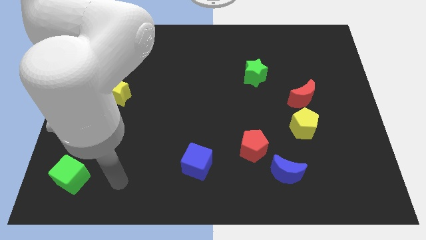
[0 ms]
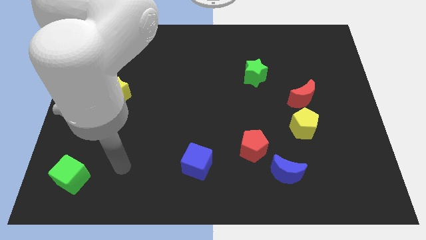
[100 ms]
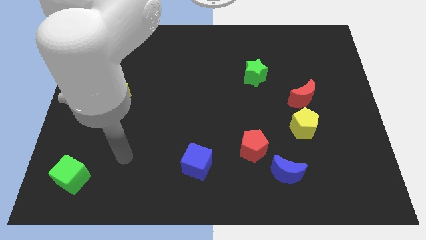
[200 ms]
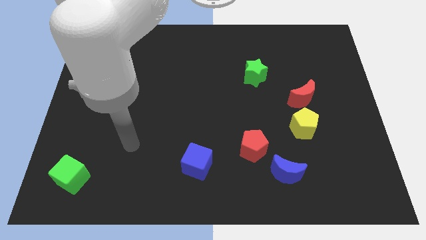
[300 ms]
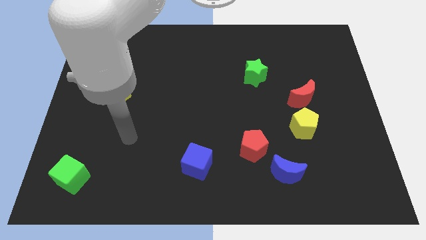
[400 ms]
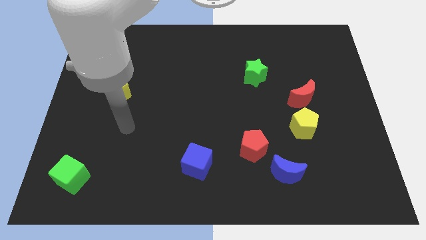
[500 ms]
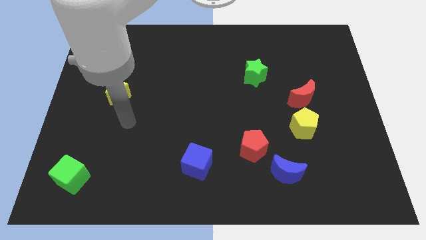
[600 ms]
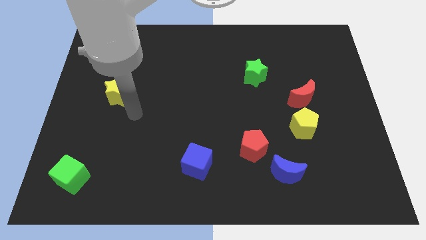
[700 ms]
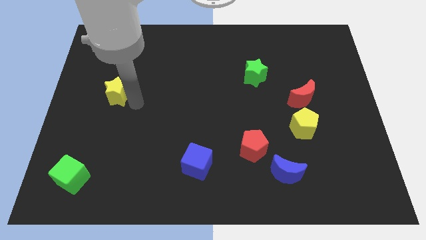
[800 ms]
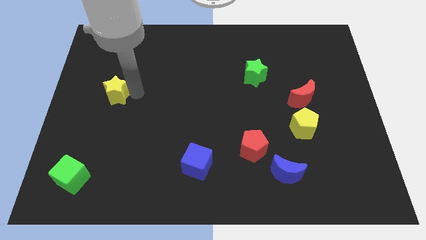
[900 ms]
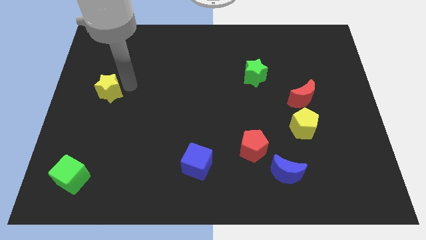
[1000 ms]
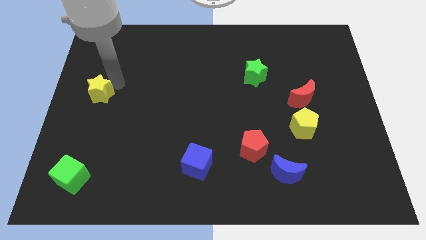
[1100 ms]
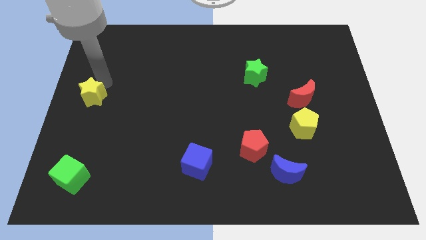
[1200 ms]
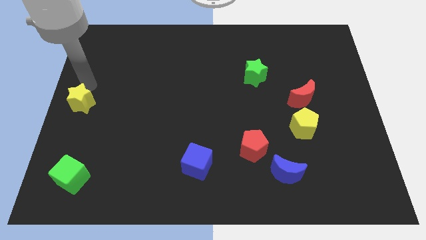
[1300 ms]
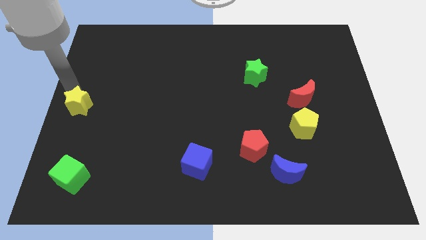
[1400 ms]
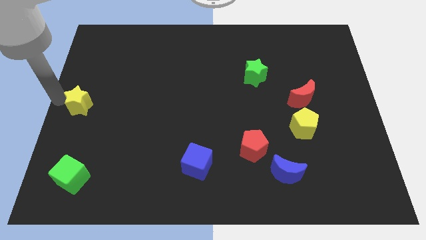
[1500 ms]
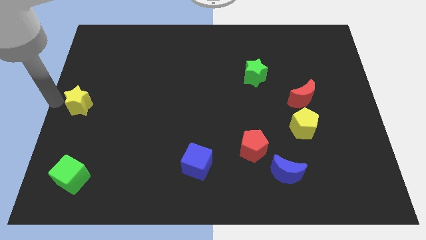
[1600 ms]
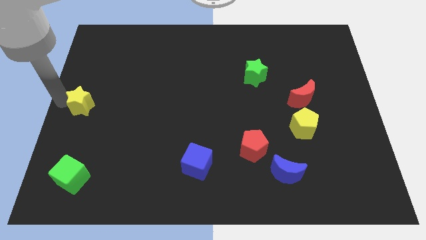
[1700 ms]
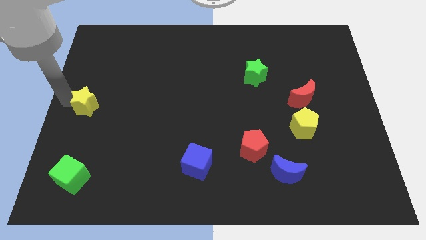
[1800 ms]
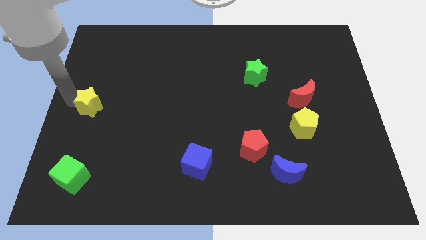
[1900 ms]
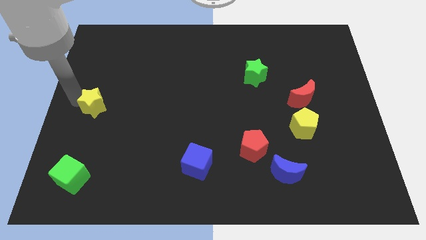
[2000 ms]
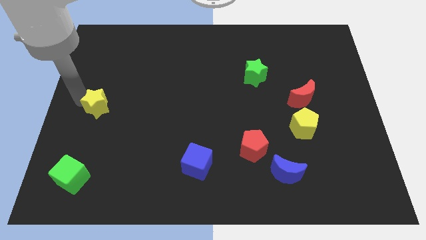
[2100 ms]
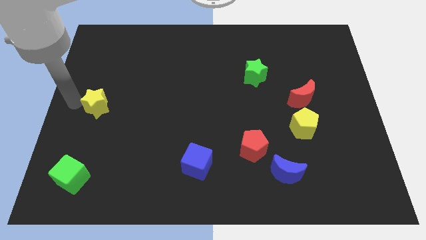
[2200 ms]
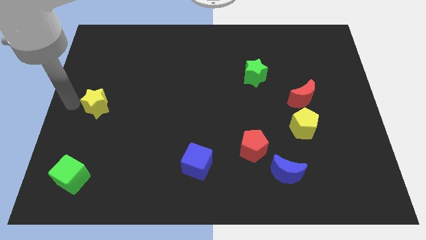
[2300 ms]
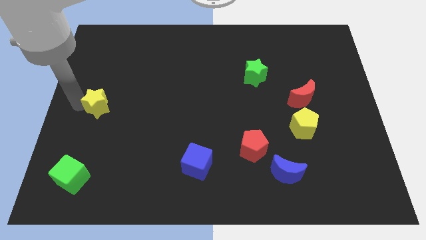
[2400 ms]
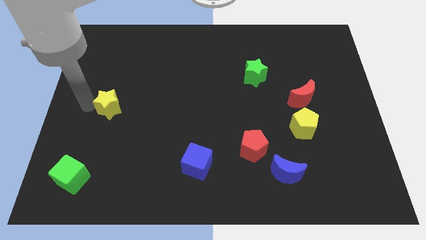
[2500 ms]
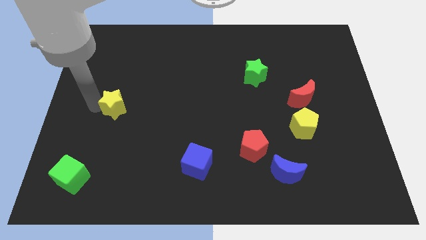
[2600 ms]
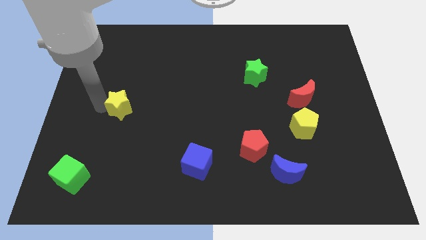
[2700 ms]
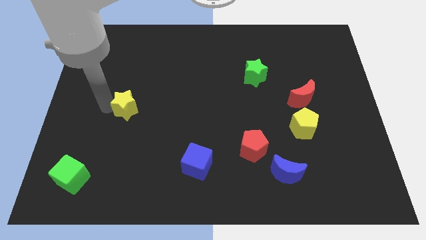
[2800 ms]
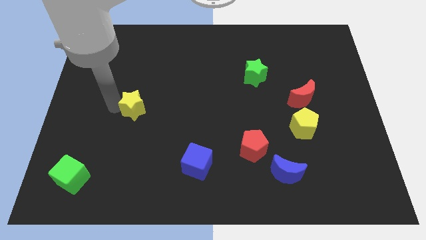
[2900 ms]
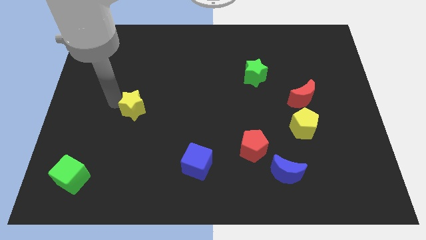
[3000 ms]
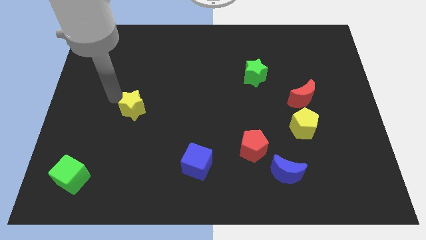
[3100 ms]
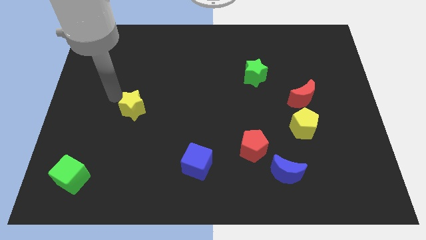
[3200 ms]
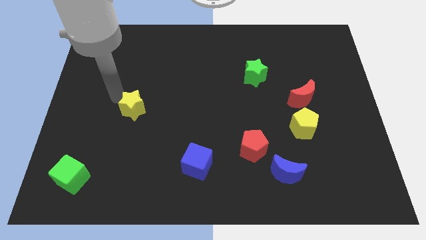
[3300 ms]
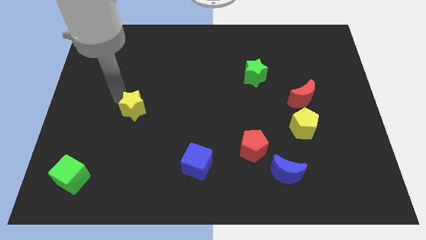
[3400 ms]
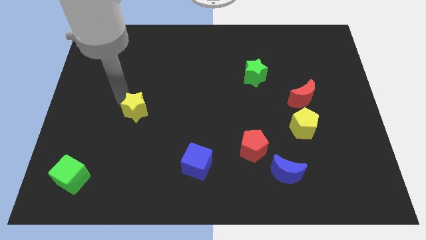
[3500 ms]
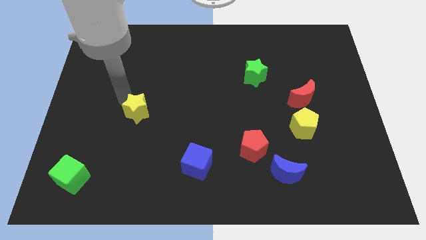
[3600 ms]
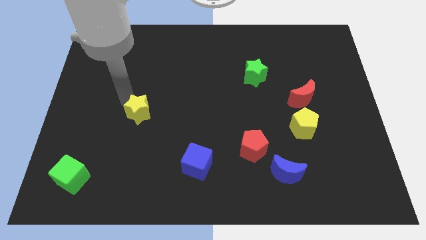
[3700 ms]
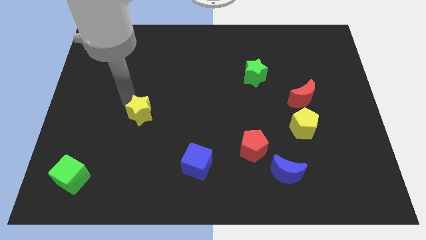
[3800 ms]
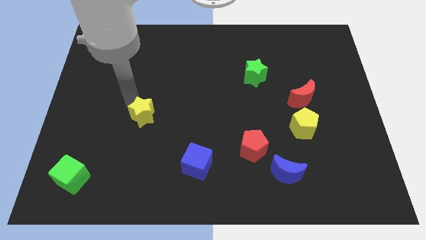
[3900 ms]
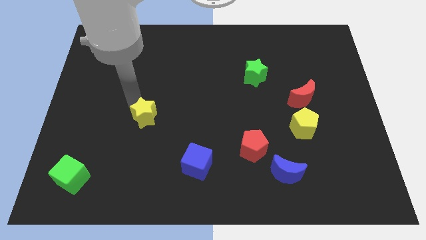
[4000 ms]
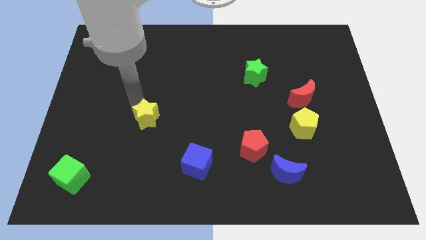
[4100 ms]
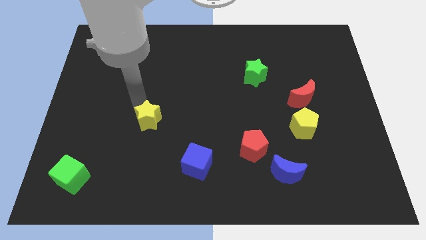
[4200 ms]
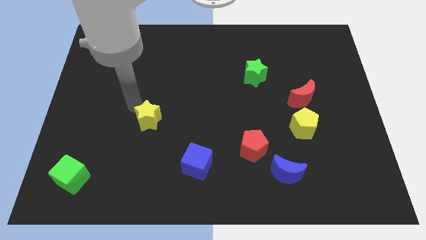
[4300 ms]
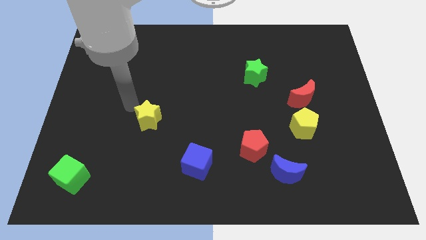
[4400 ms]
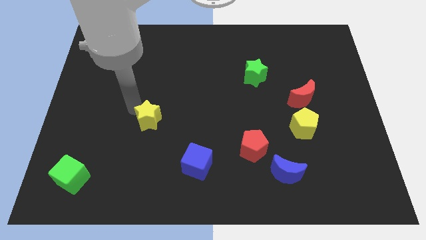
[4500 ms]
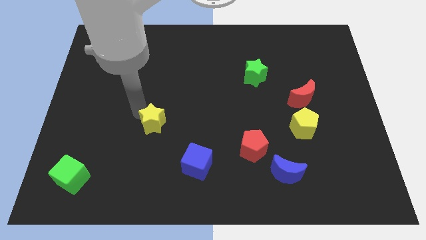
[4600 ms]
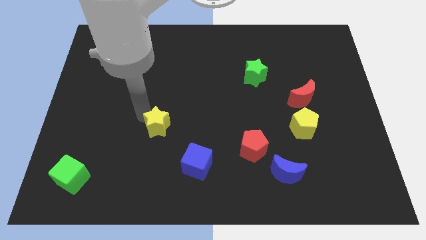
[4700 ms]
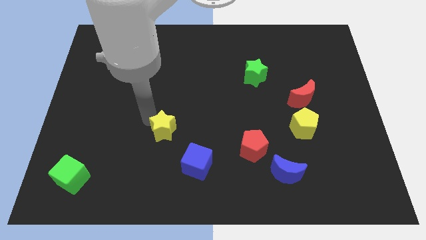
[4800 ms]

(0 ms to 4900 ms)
slide the yellow star to the top left of the blue cube

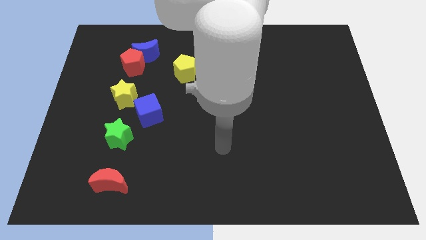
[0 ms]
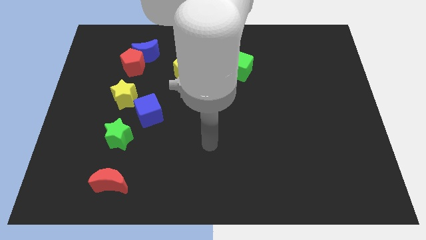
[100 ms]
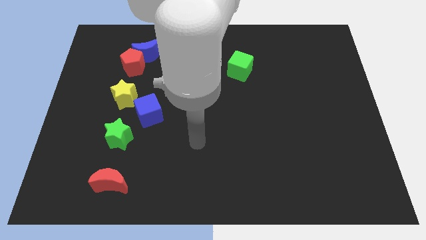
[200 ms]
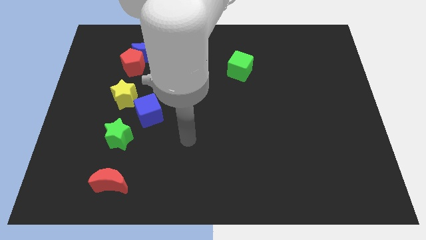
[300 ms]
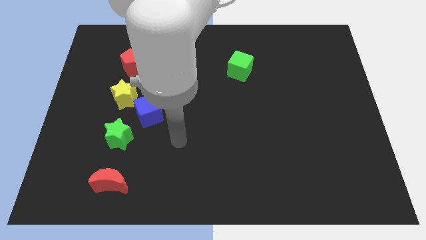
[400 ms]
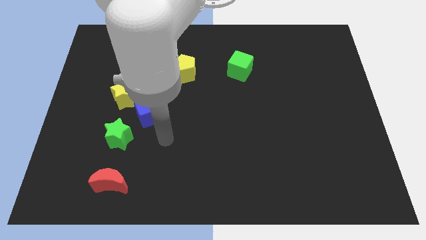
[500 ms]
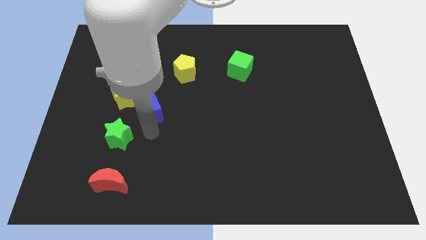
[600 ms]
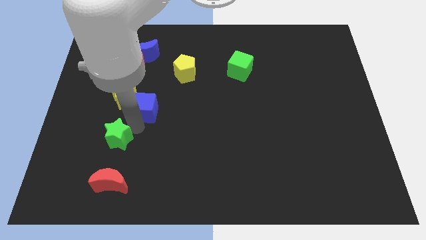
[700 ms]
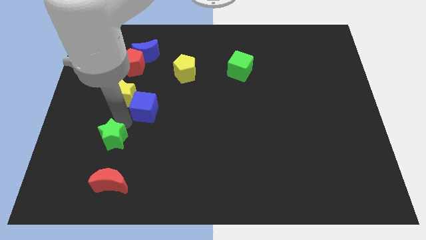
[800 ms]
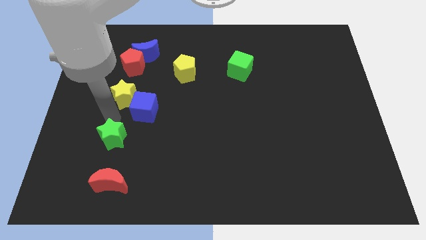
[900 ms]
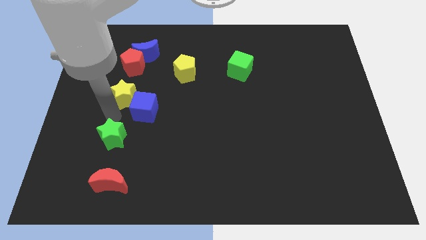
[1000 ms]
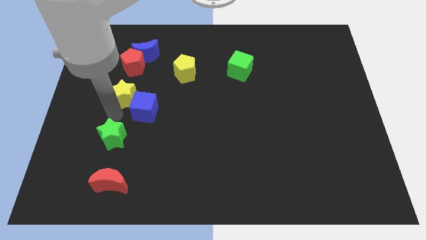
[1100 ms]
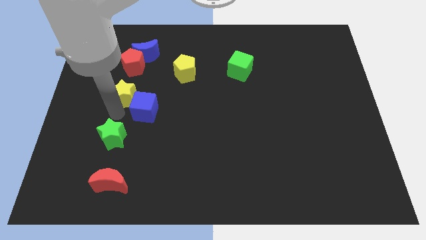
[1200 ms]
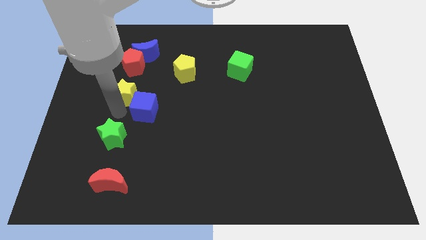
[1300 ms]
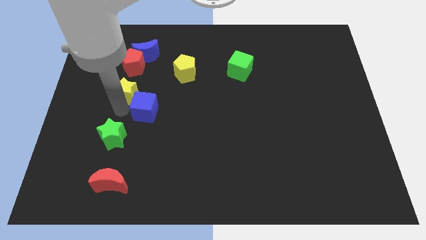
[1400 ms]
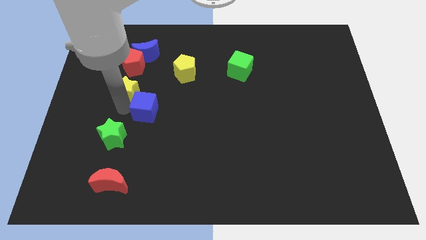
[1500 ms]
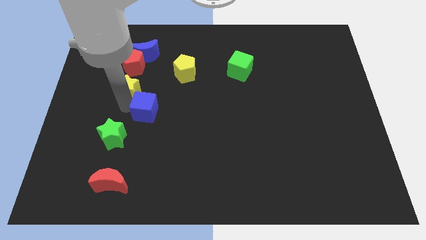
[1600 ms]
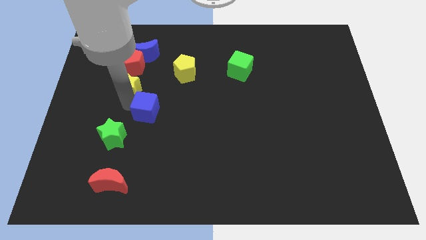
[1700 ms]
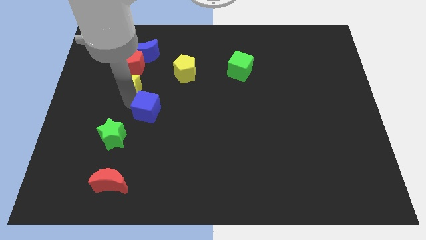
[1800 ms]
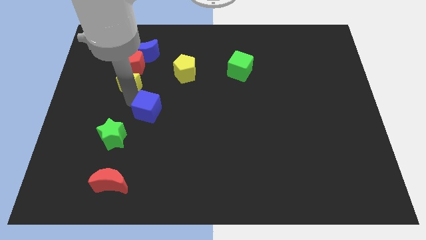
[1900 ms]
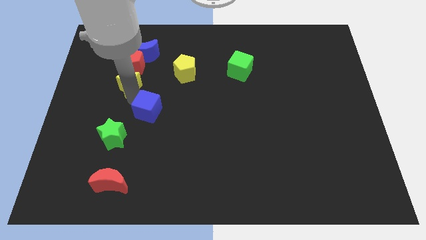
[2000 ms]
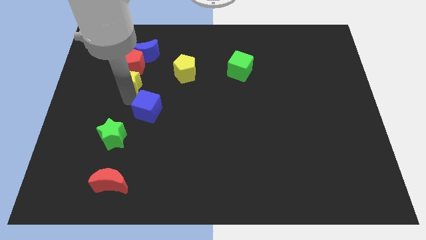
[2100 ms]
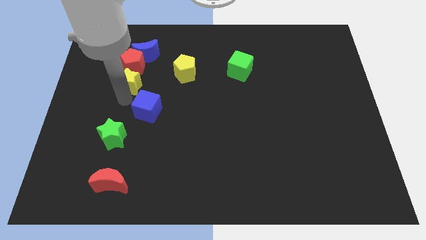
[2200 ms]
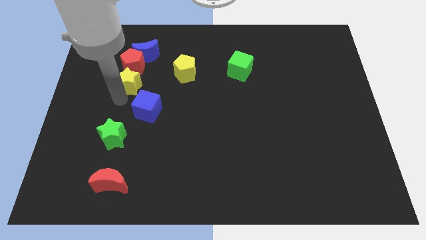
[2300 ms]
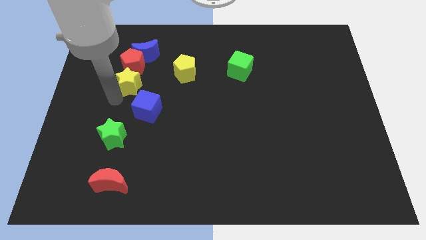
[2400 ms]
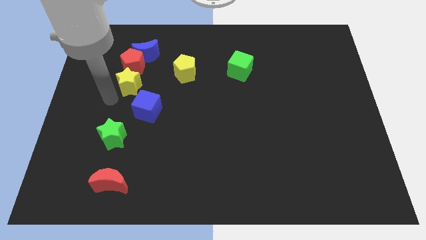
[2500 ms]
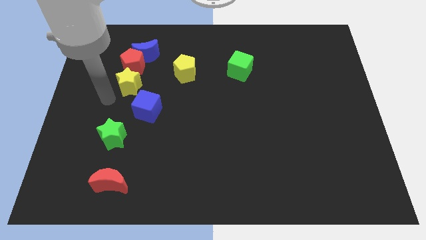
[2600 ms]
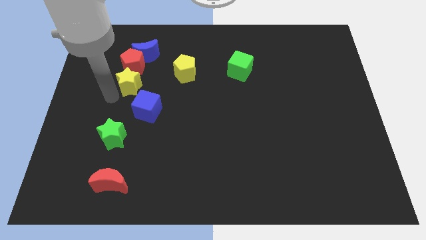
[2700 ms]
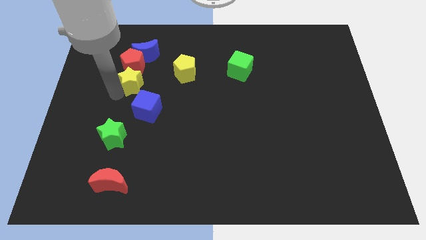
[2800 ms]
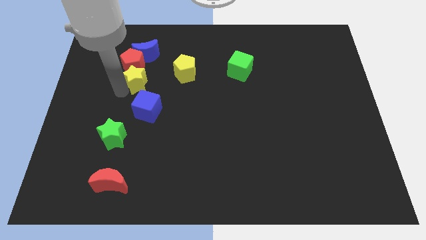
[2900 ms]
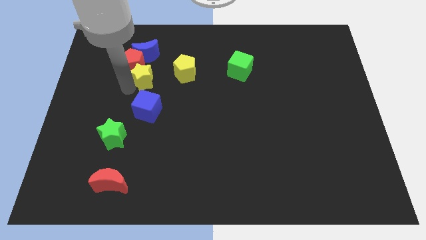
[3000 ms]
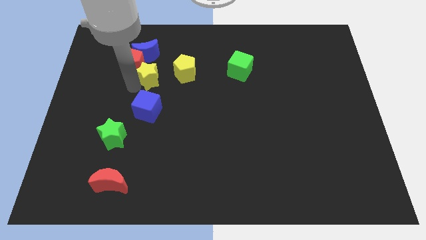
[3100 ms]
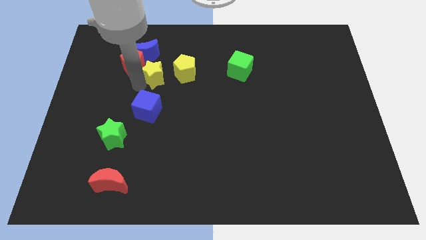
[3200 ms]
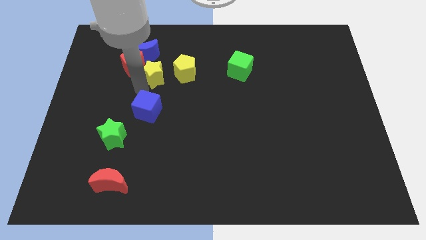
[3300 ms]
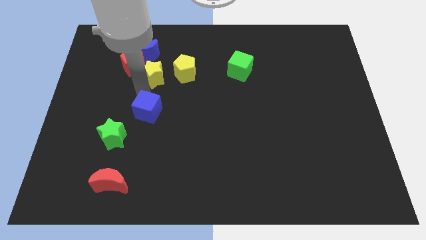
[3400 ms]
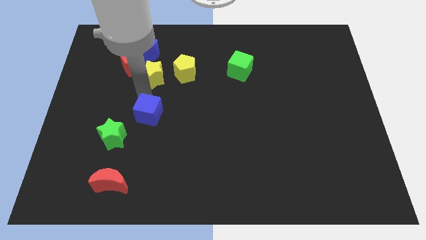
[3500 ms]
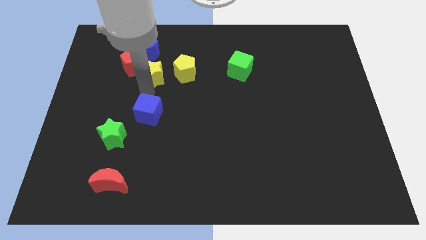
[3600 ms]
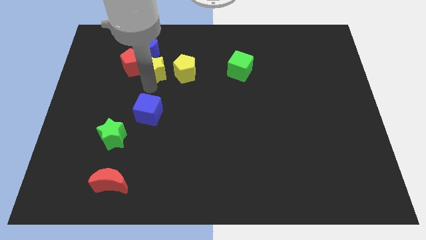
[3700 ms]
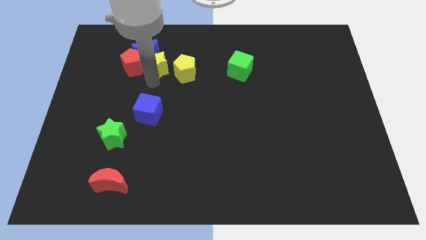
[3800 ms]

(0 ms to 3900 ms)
slide the yellow star to the right of the blue moon
